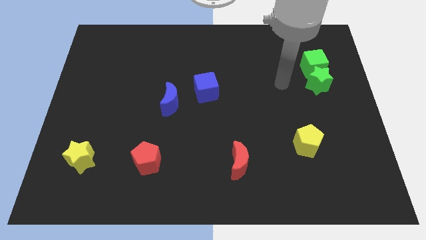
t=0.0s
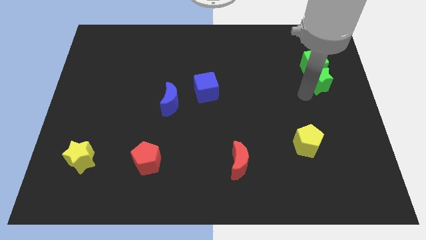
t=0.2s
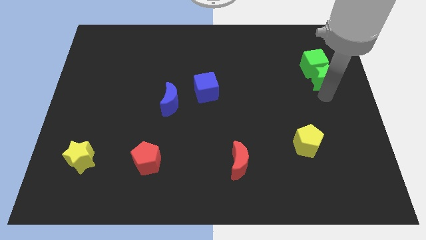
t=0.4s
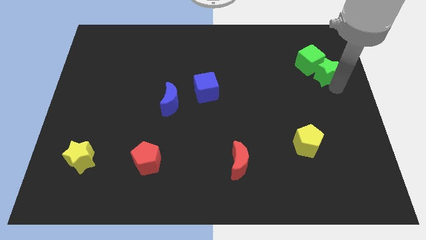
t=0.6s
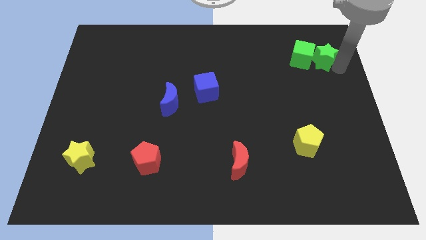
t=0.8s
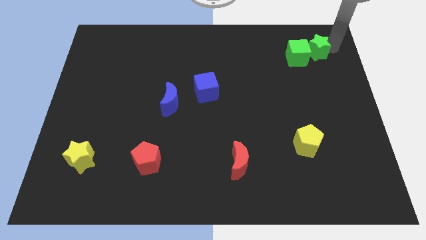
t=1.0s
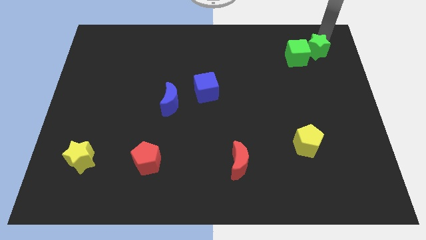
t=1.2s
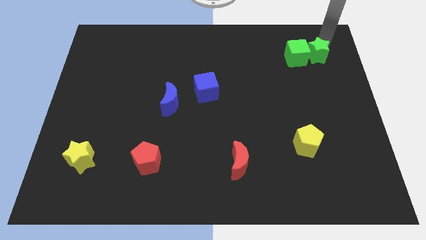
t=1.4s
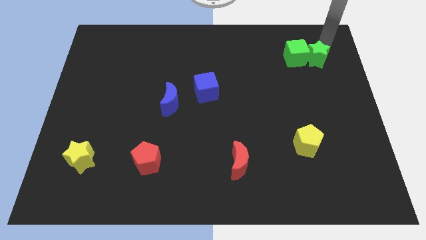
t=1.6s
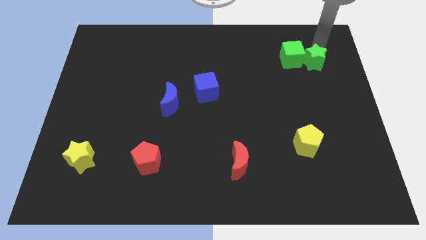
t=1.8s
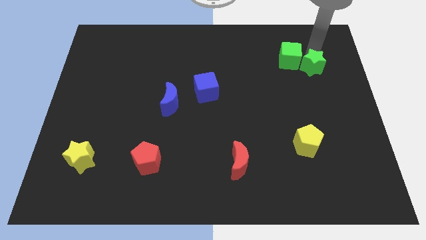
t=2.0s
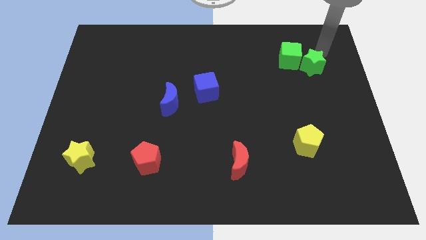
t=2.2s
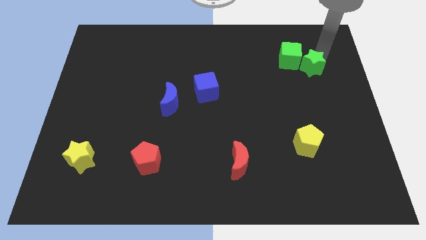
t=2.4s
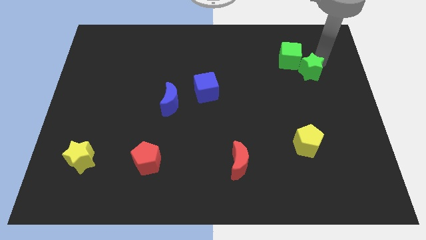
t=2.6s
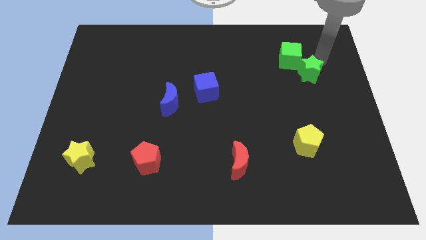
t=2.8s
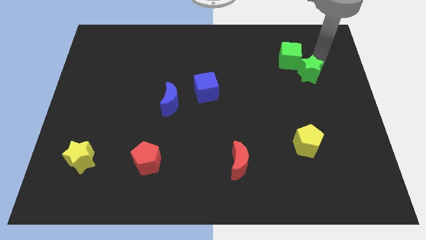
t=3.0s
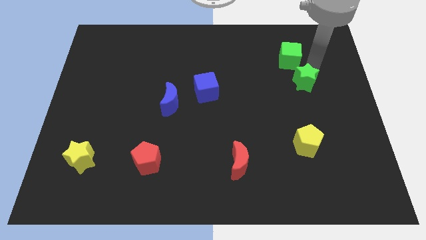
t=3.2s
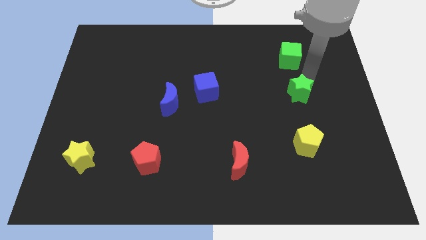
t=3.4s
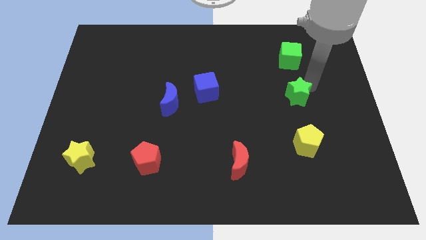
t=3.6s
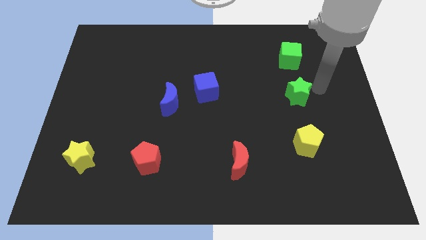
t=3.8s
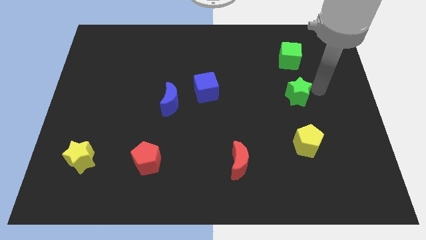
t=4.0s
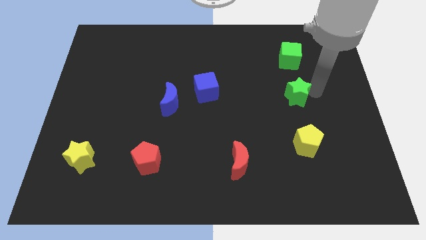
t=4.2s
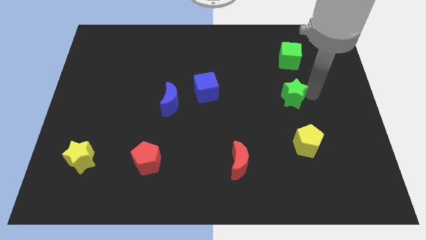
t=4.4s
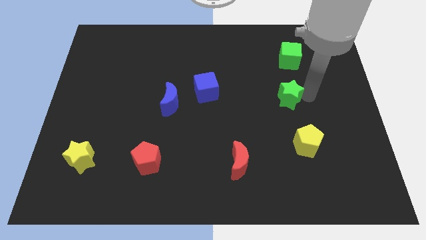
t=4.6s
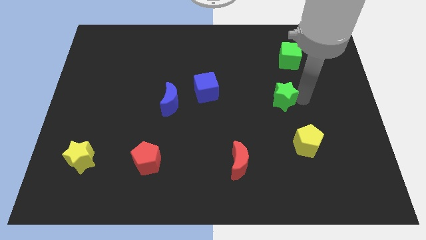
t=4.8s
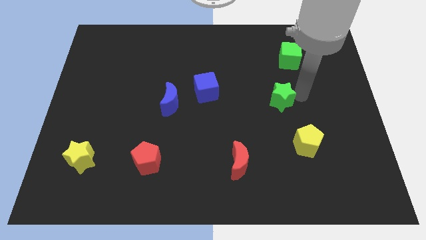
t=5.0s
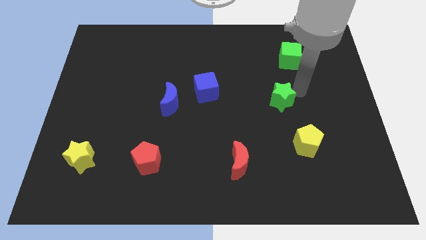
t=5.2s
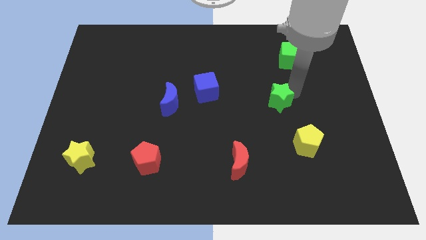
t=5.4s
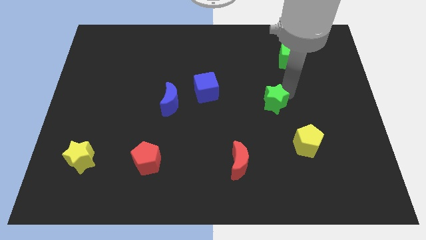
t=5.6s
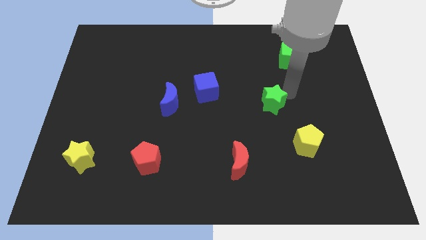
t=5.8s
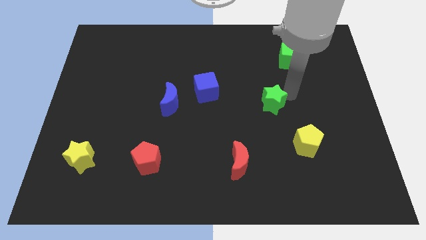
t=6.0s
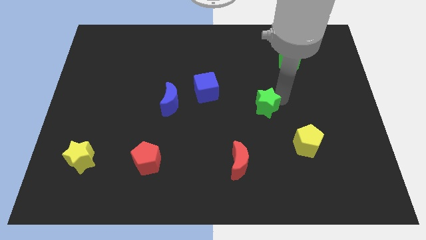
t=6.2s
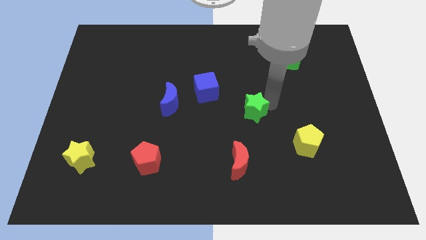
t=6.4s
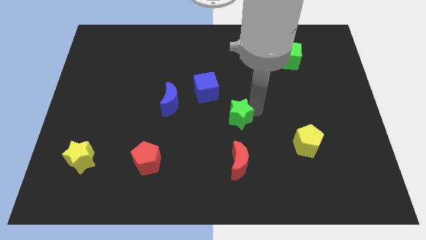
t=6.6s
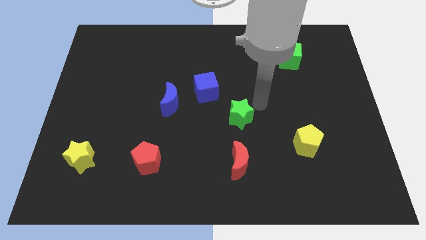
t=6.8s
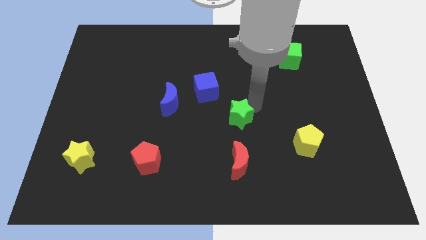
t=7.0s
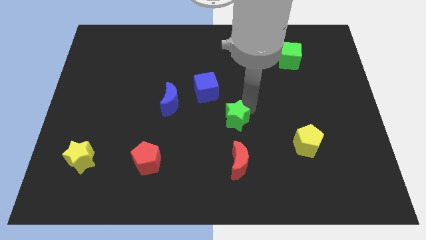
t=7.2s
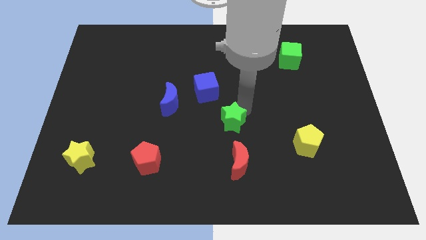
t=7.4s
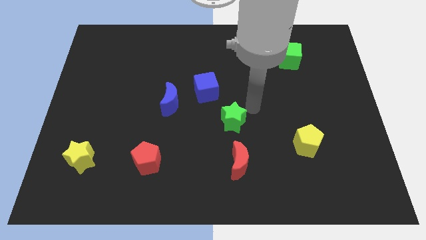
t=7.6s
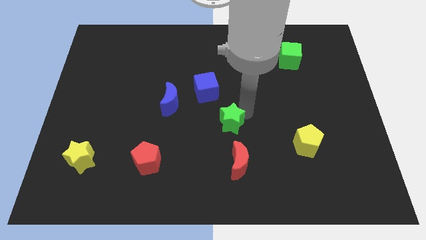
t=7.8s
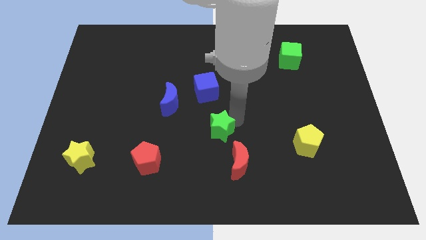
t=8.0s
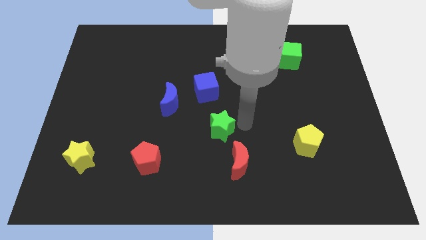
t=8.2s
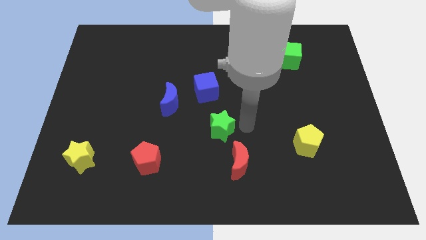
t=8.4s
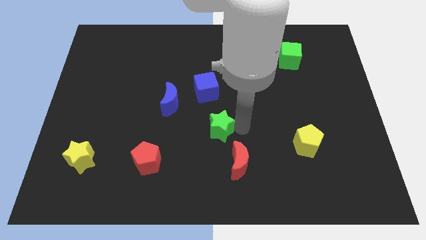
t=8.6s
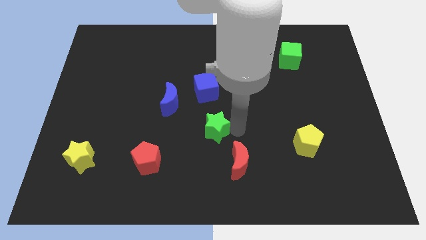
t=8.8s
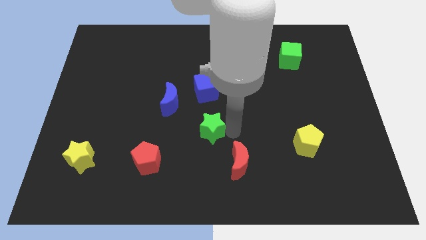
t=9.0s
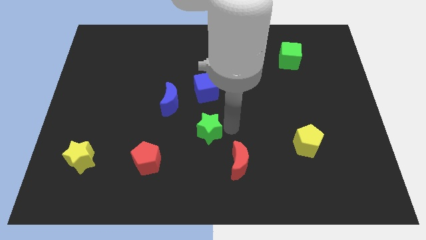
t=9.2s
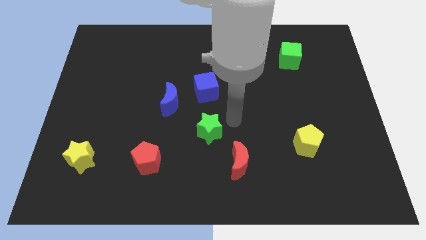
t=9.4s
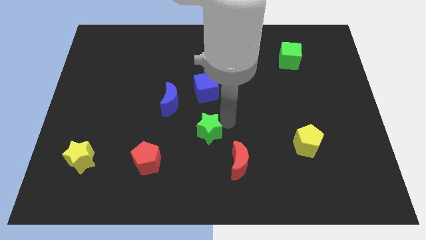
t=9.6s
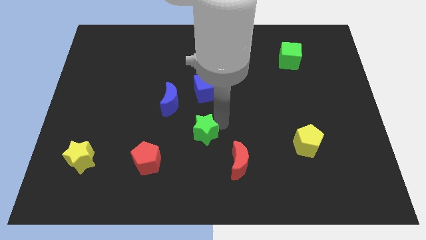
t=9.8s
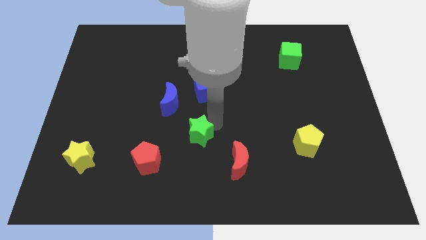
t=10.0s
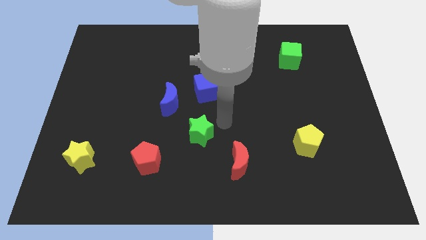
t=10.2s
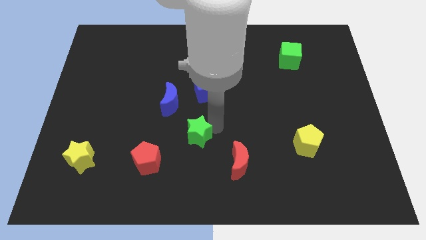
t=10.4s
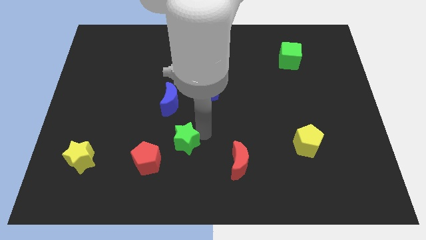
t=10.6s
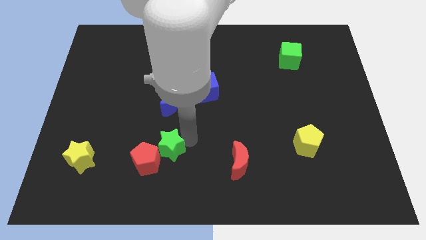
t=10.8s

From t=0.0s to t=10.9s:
push the green star close to the red pentagon

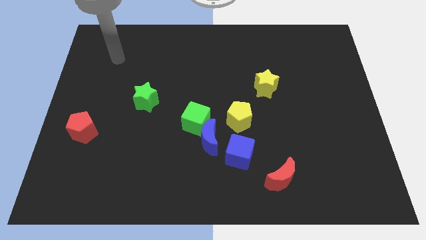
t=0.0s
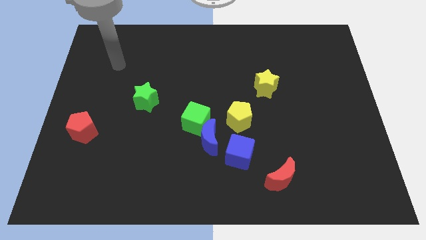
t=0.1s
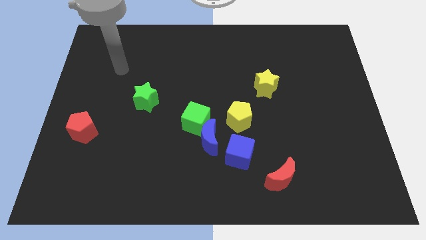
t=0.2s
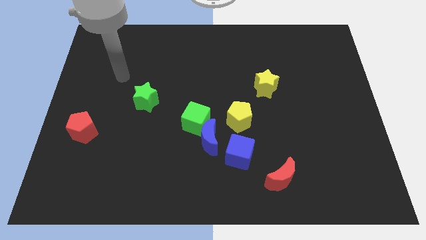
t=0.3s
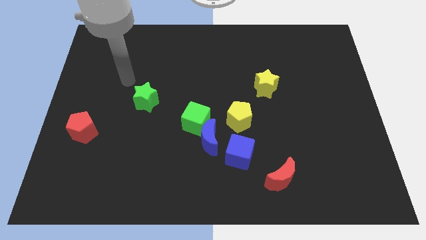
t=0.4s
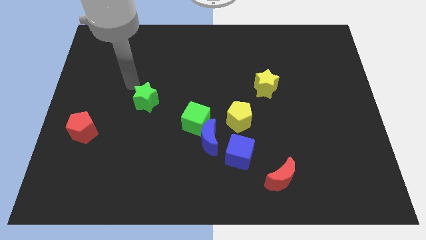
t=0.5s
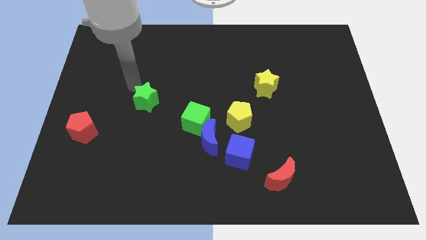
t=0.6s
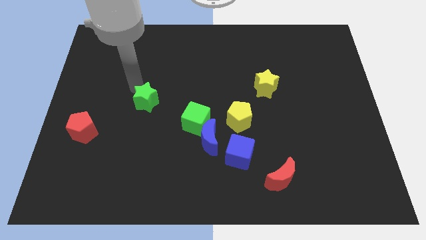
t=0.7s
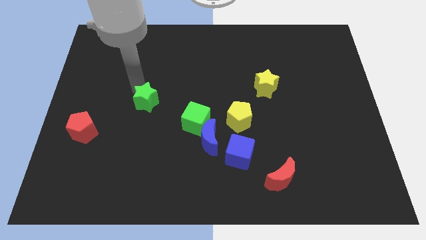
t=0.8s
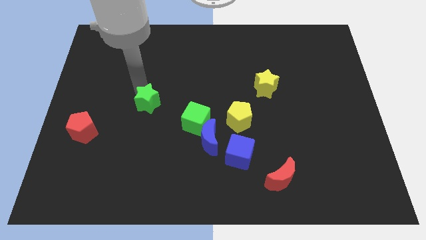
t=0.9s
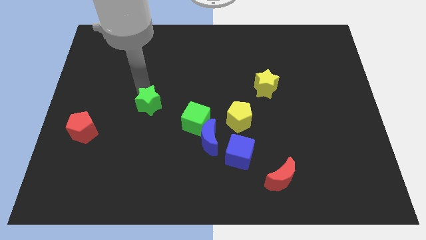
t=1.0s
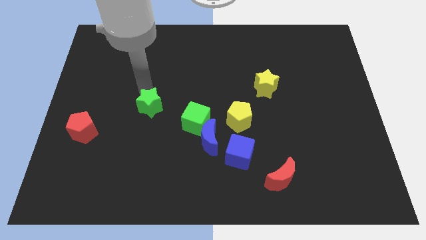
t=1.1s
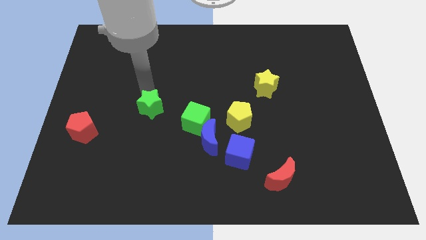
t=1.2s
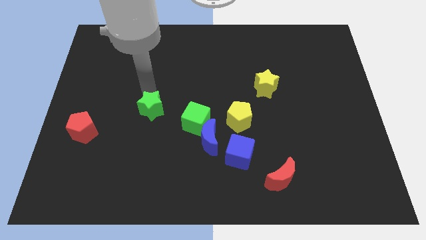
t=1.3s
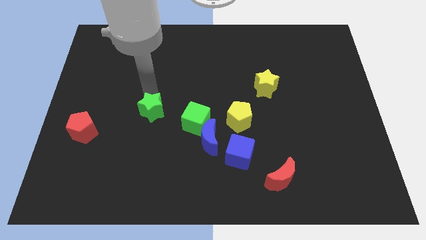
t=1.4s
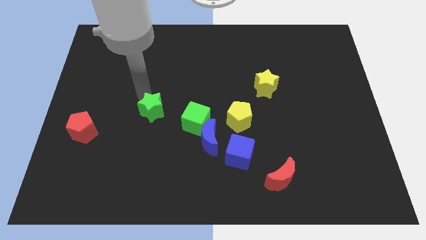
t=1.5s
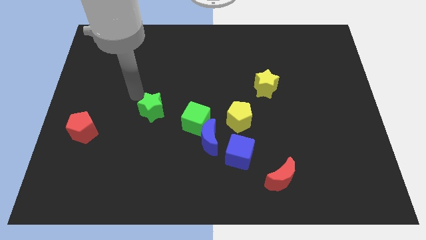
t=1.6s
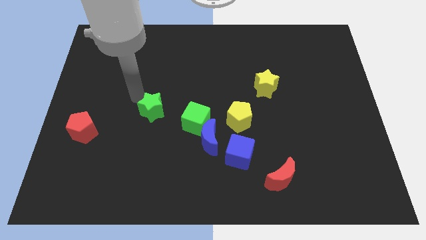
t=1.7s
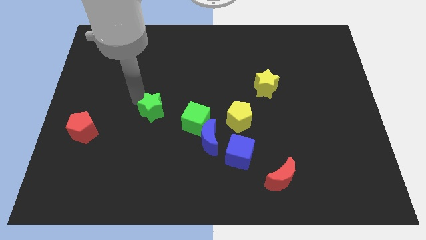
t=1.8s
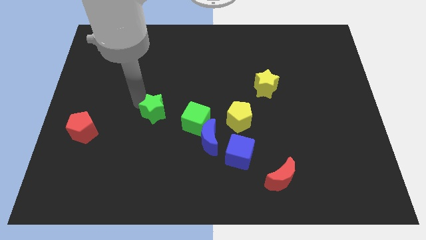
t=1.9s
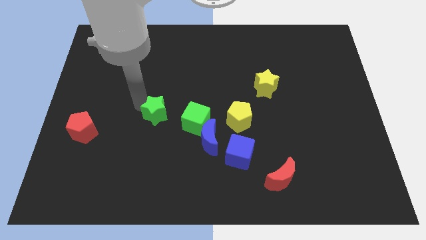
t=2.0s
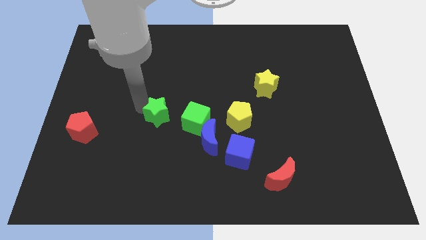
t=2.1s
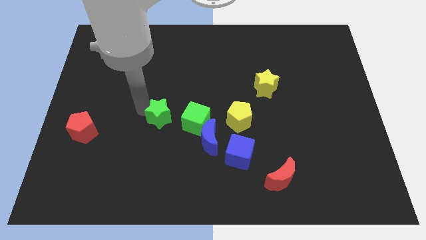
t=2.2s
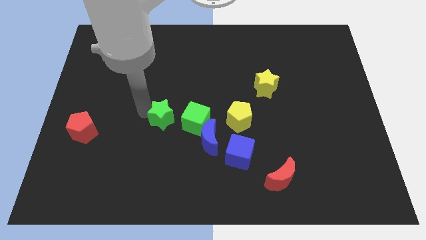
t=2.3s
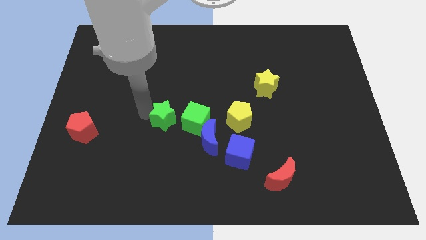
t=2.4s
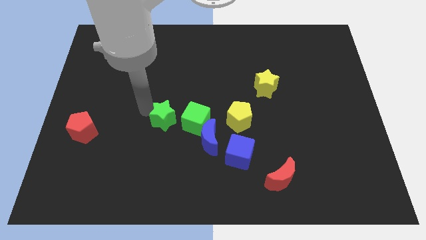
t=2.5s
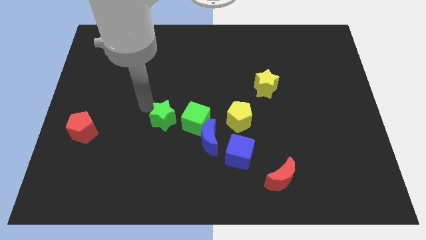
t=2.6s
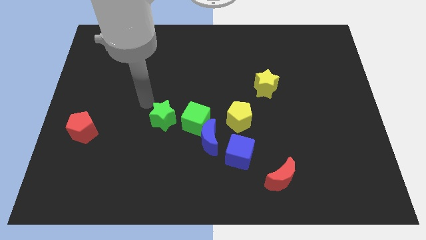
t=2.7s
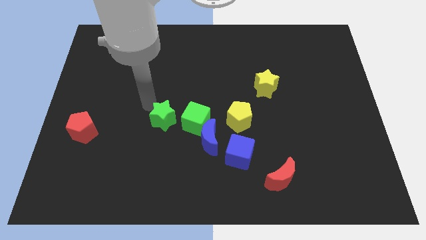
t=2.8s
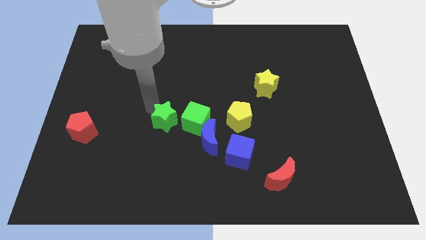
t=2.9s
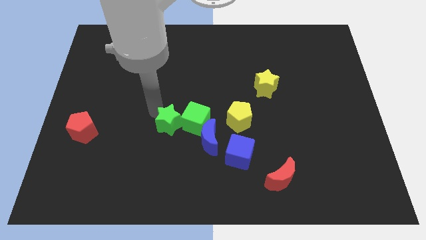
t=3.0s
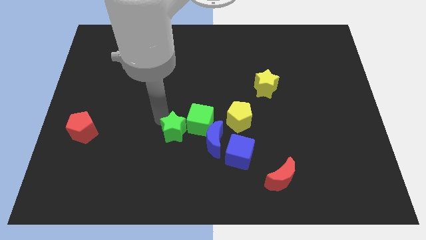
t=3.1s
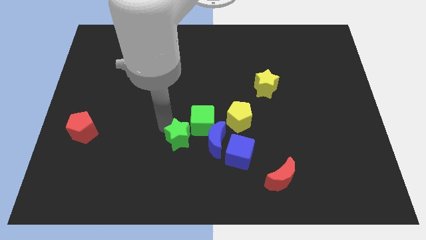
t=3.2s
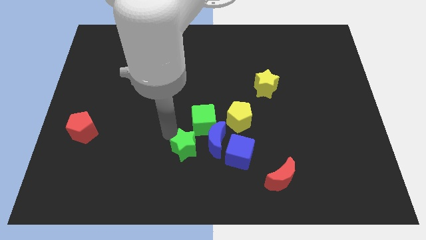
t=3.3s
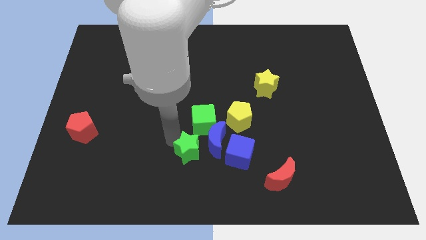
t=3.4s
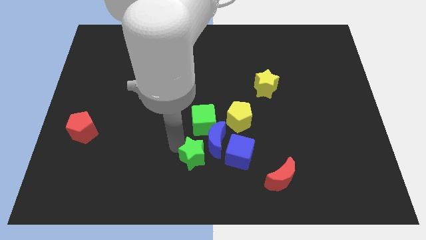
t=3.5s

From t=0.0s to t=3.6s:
move the green star towards the blue moon
